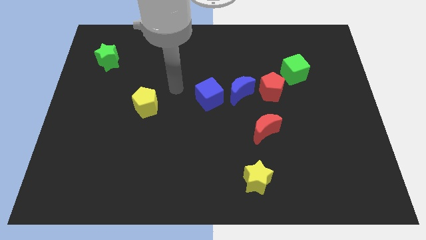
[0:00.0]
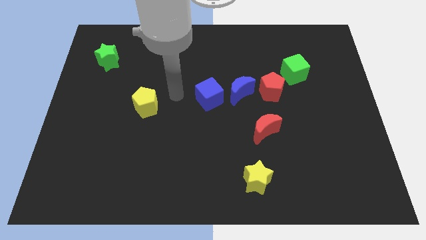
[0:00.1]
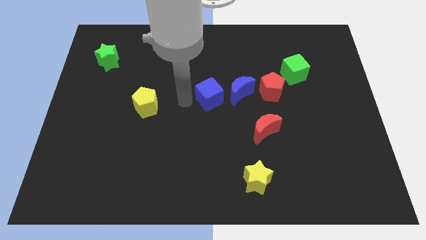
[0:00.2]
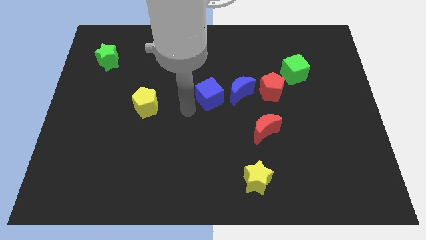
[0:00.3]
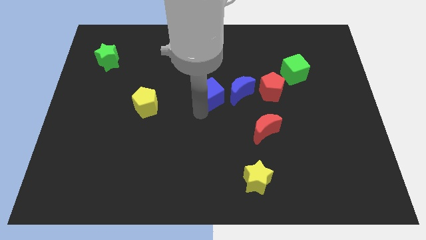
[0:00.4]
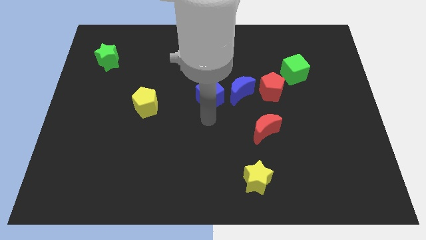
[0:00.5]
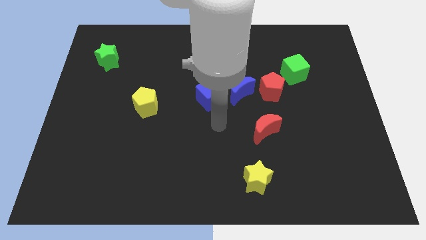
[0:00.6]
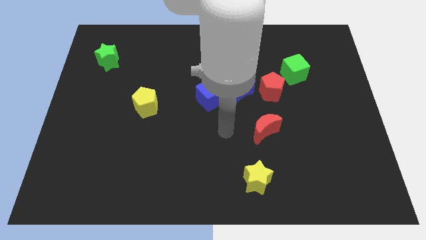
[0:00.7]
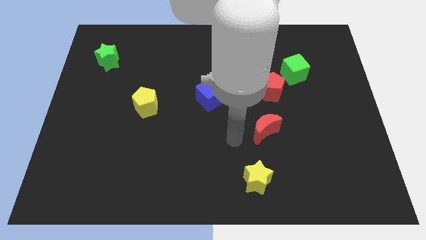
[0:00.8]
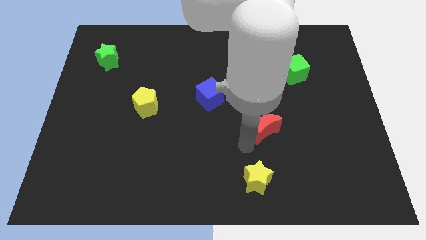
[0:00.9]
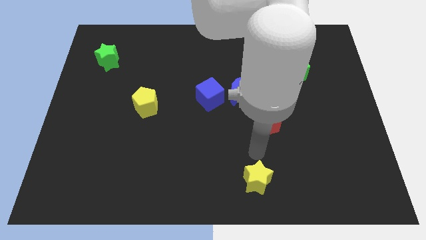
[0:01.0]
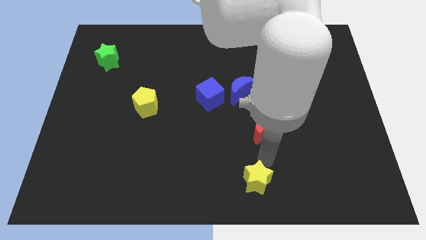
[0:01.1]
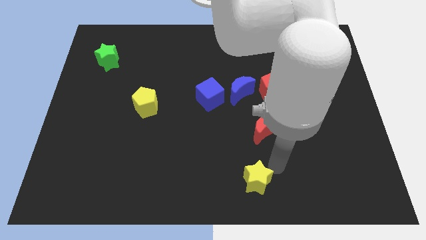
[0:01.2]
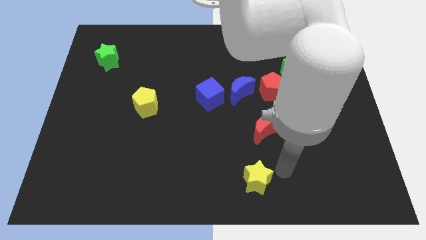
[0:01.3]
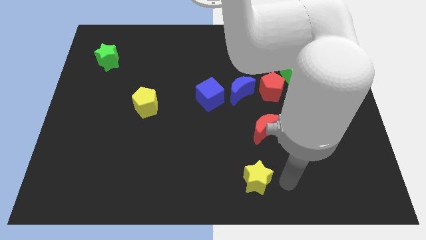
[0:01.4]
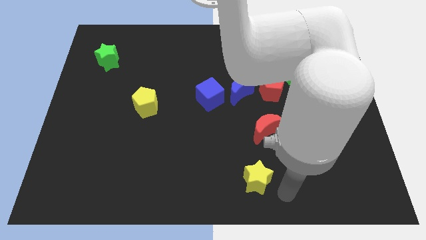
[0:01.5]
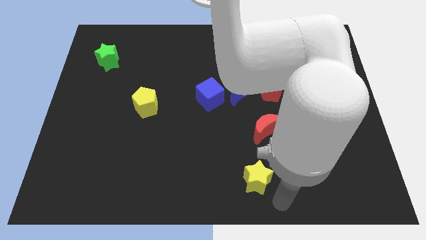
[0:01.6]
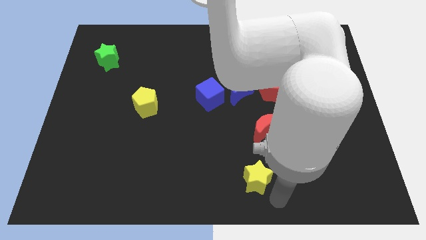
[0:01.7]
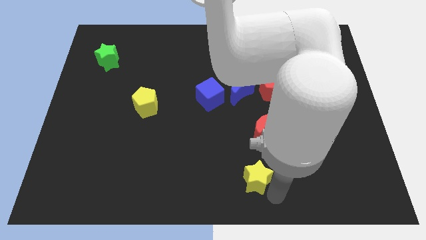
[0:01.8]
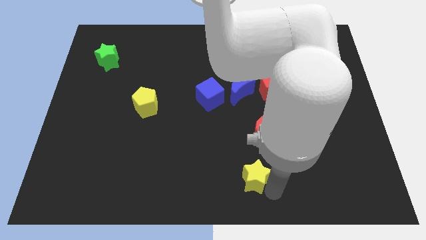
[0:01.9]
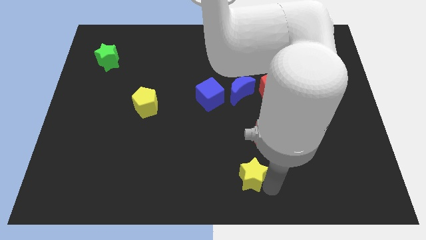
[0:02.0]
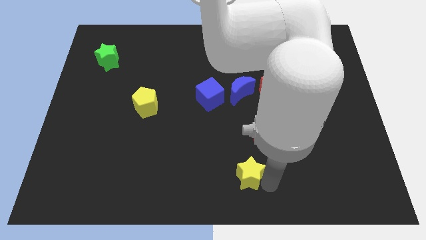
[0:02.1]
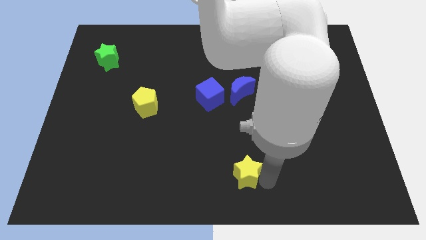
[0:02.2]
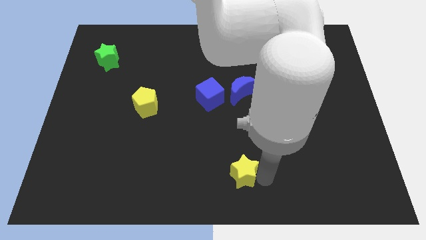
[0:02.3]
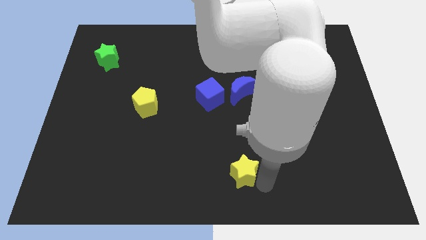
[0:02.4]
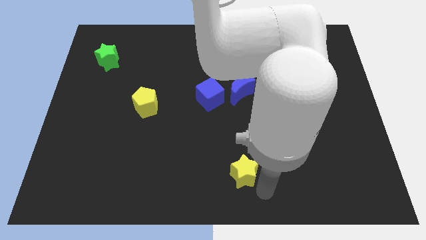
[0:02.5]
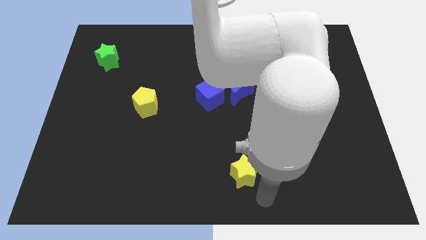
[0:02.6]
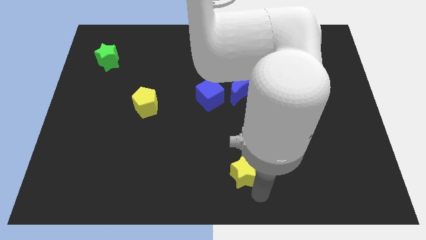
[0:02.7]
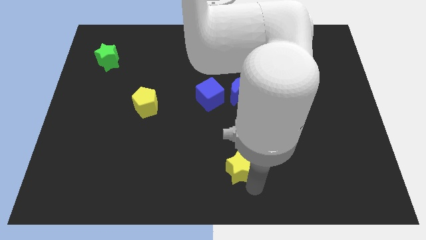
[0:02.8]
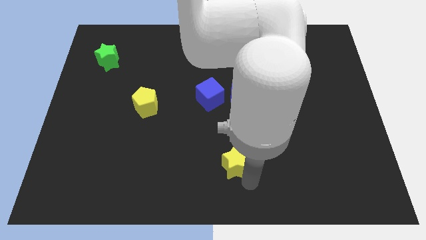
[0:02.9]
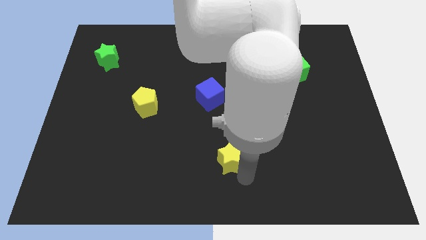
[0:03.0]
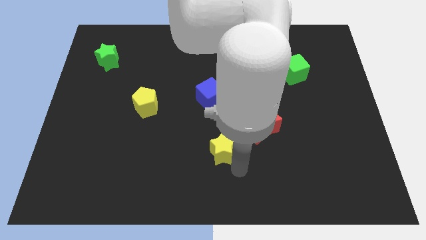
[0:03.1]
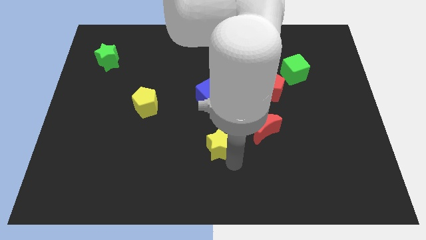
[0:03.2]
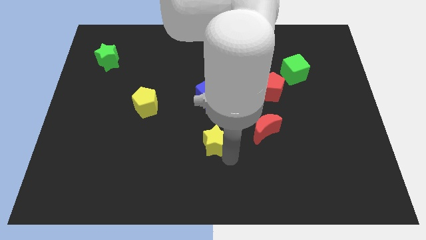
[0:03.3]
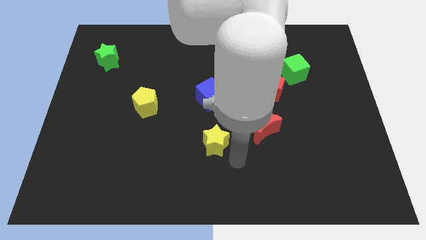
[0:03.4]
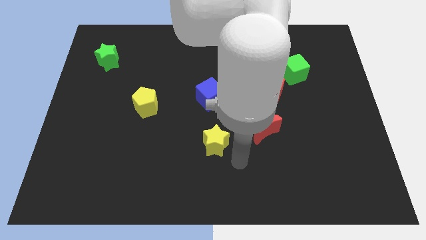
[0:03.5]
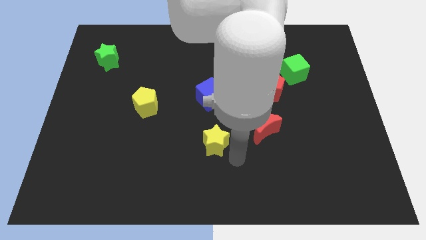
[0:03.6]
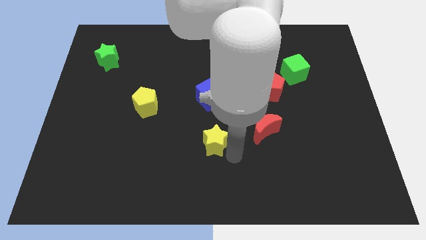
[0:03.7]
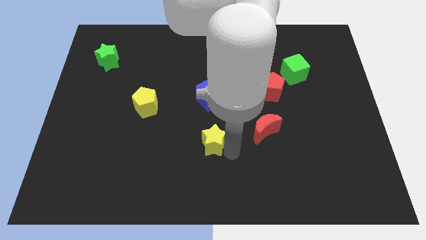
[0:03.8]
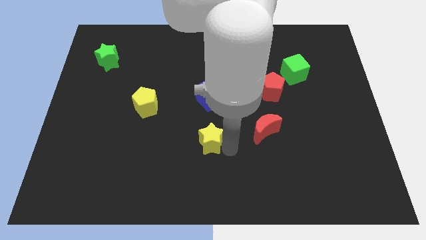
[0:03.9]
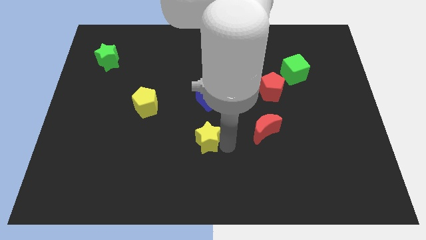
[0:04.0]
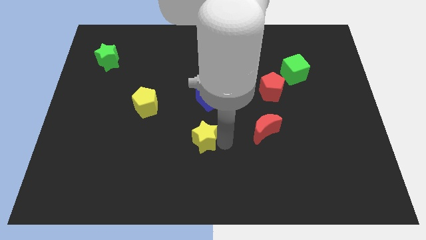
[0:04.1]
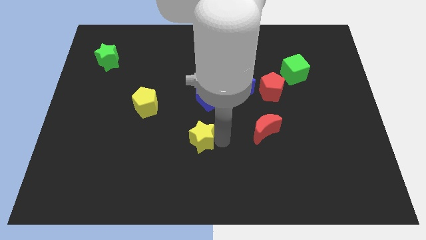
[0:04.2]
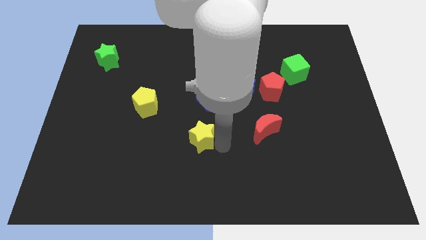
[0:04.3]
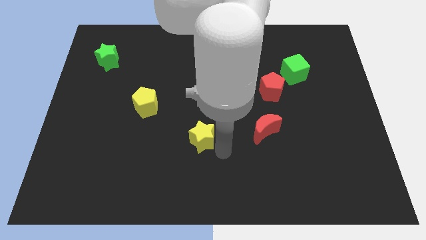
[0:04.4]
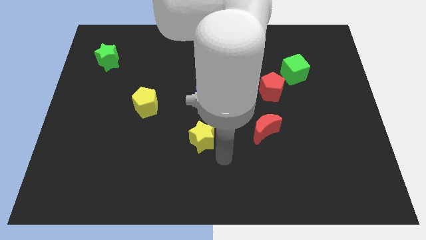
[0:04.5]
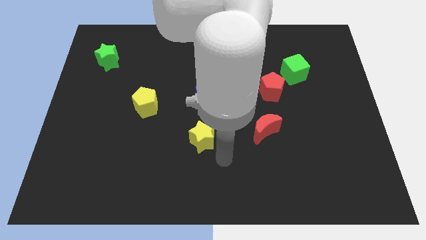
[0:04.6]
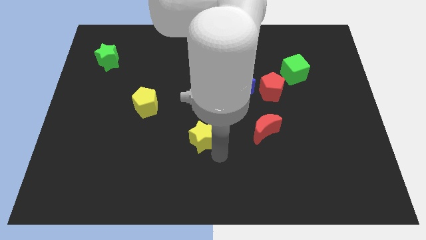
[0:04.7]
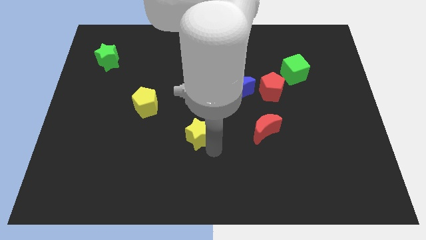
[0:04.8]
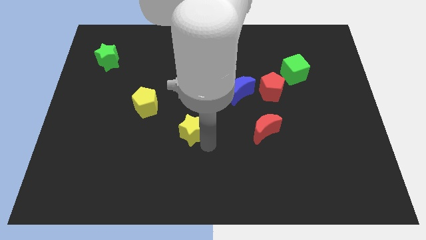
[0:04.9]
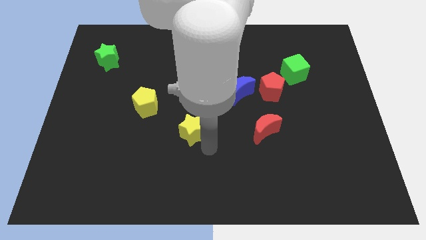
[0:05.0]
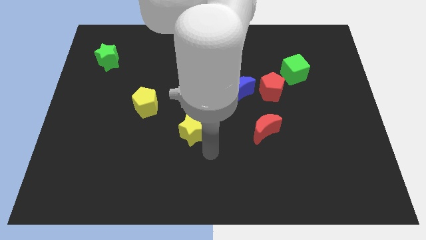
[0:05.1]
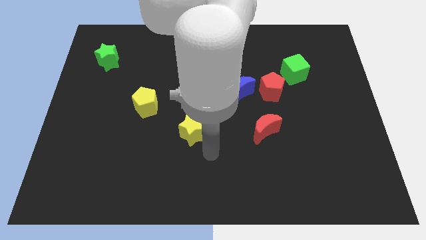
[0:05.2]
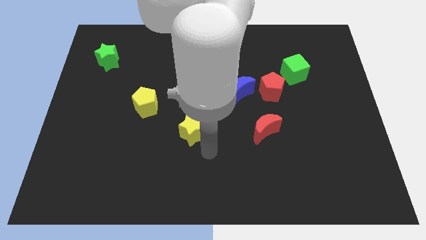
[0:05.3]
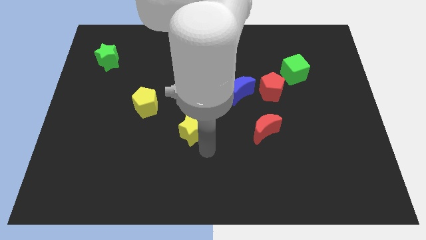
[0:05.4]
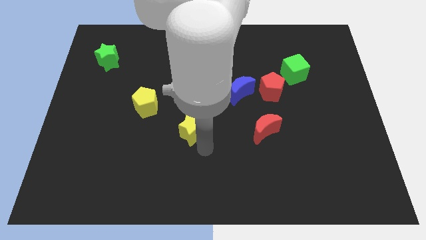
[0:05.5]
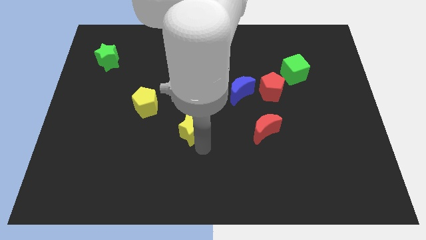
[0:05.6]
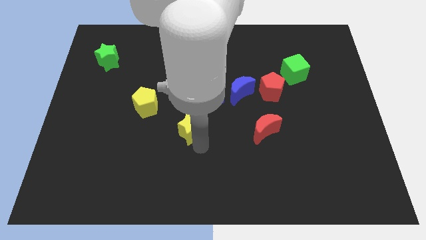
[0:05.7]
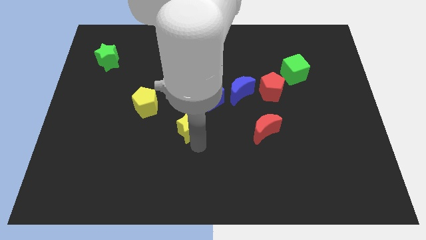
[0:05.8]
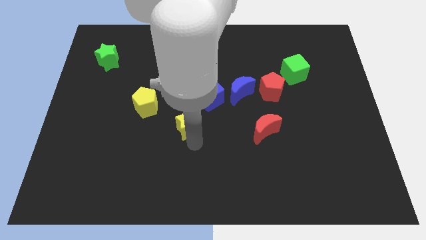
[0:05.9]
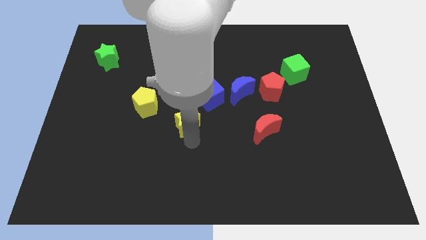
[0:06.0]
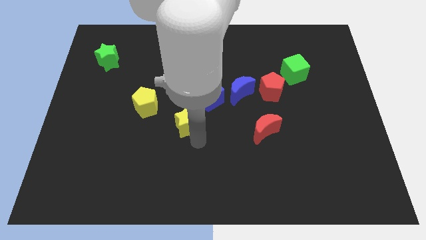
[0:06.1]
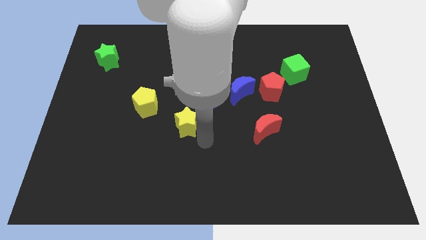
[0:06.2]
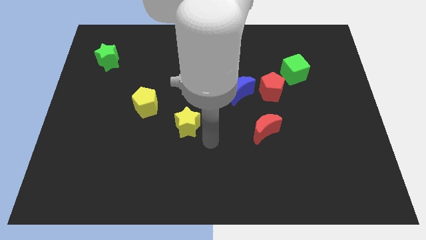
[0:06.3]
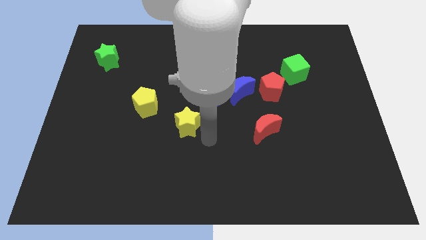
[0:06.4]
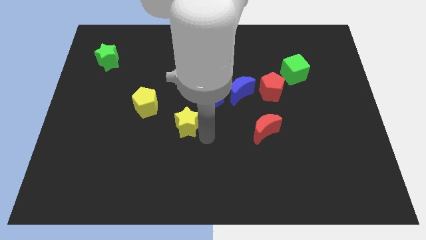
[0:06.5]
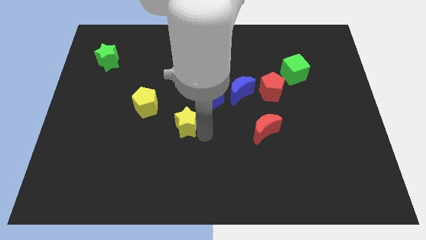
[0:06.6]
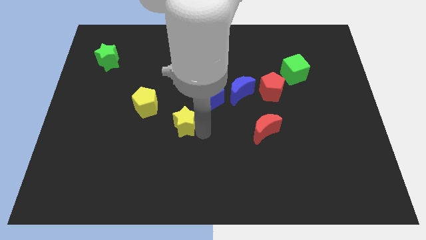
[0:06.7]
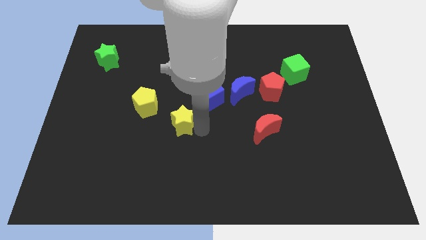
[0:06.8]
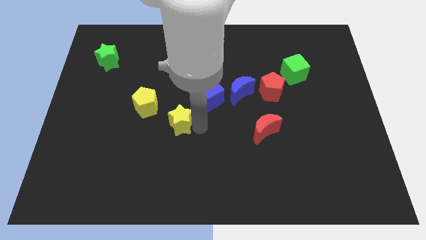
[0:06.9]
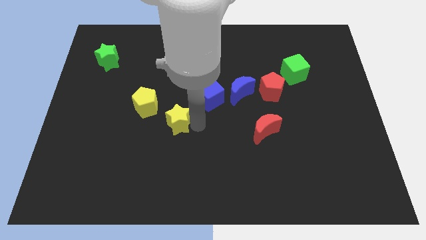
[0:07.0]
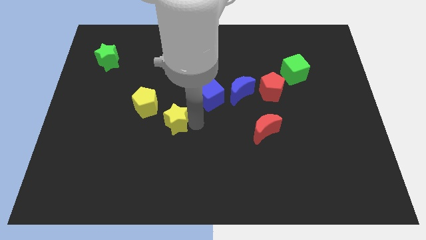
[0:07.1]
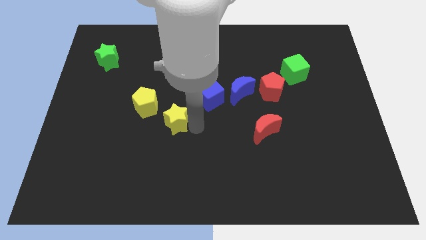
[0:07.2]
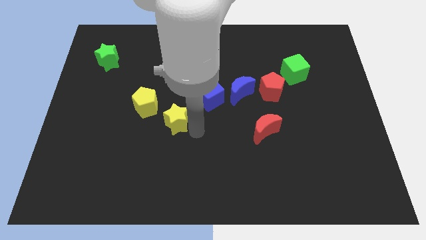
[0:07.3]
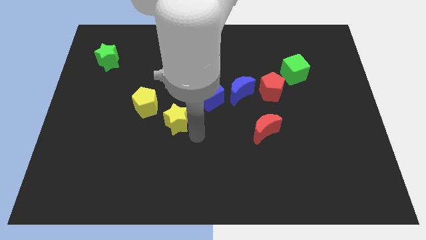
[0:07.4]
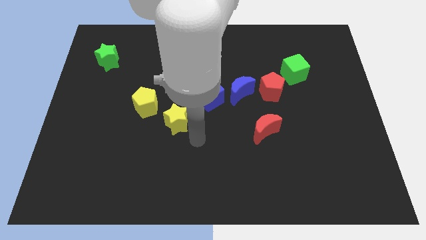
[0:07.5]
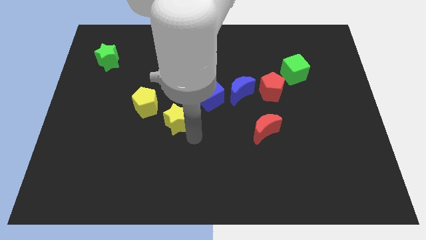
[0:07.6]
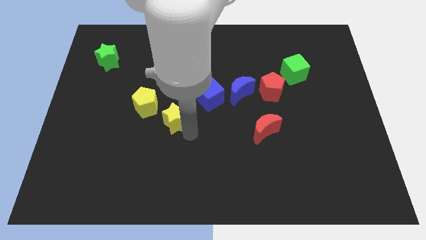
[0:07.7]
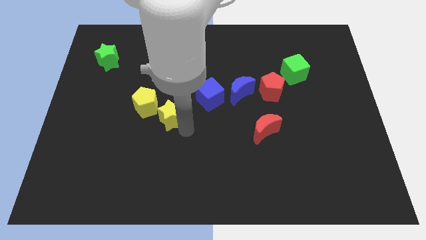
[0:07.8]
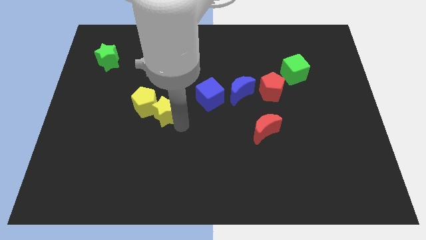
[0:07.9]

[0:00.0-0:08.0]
put the yellow star close to the yellow pentagon
